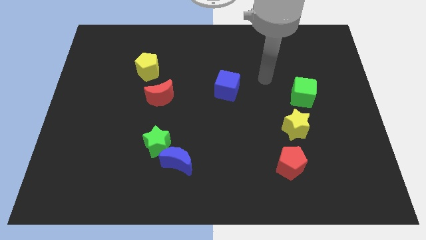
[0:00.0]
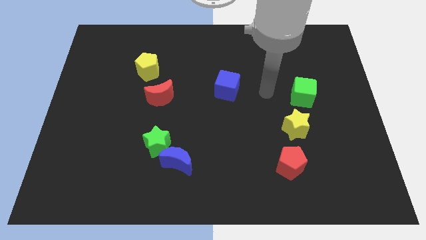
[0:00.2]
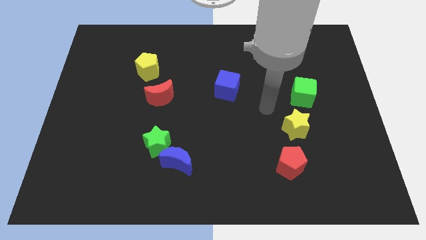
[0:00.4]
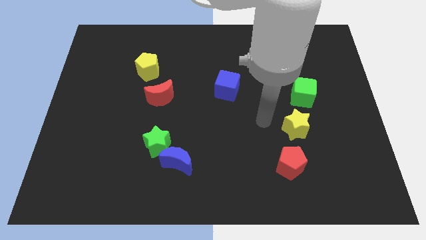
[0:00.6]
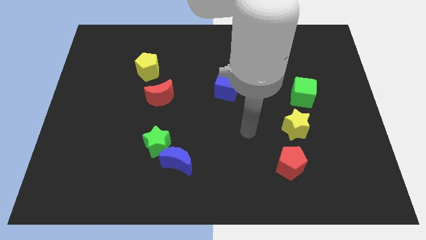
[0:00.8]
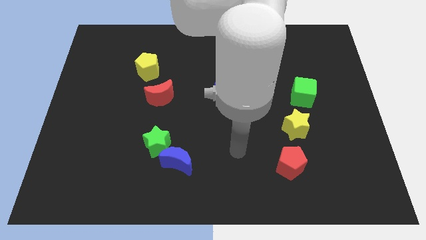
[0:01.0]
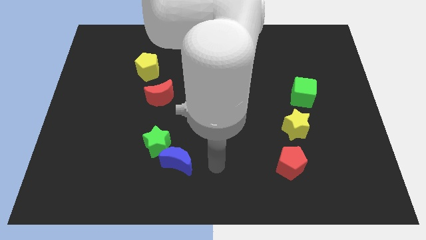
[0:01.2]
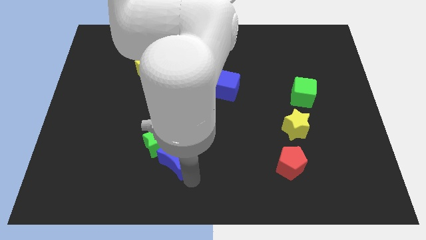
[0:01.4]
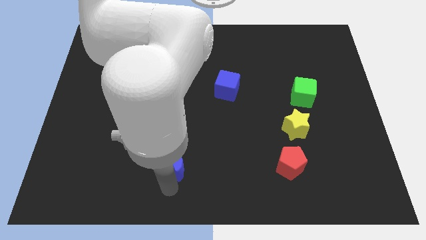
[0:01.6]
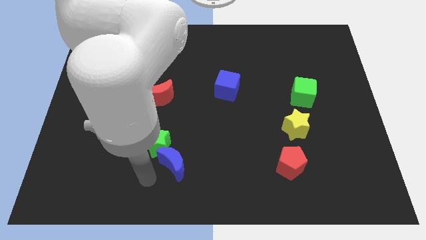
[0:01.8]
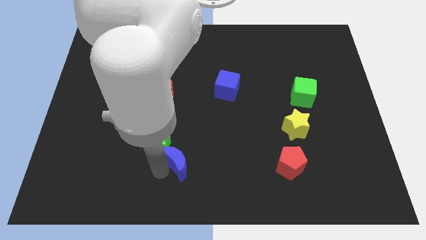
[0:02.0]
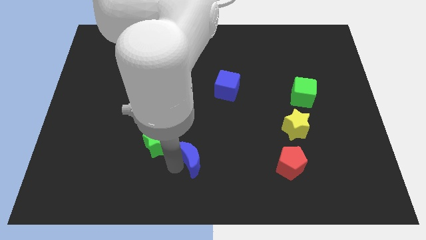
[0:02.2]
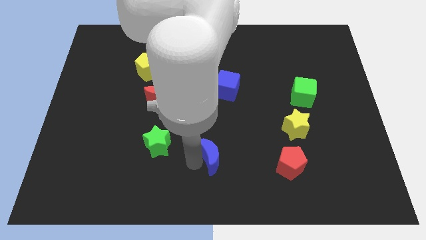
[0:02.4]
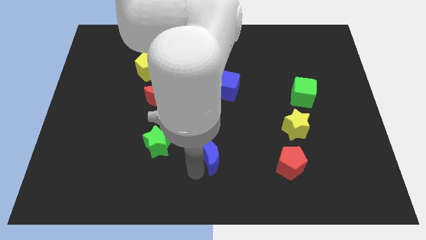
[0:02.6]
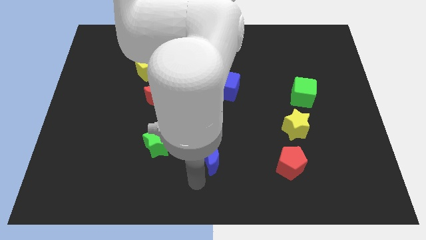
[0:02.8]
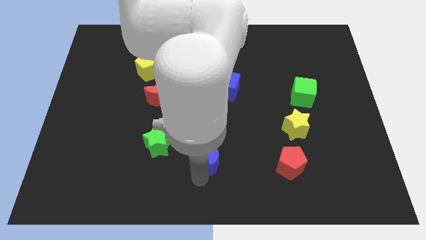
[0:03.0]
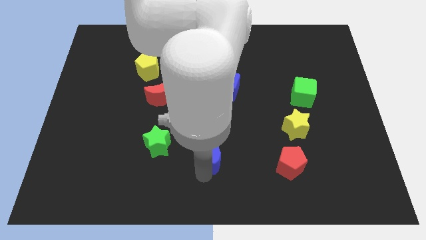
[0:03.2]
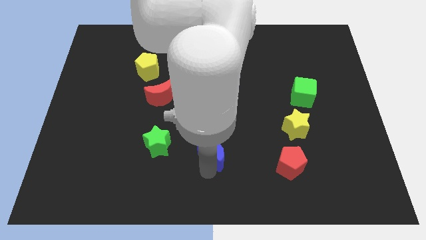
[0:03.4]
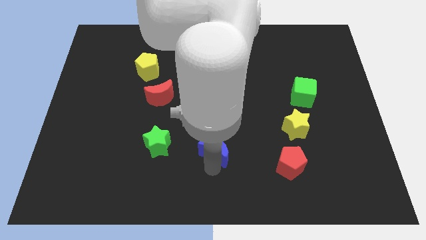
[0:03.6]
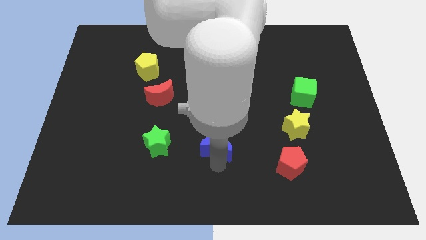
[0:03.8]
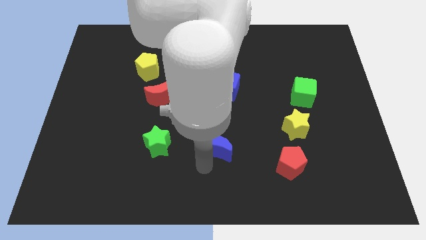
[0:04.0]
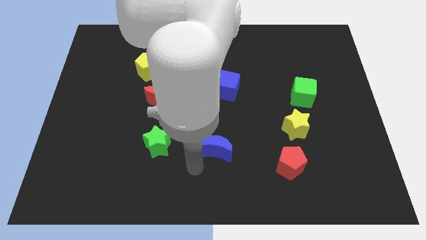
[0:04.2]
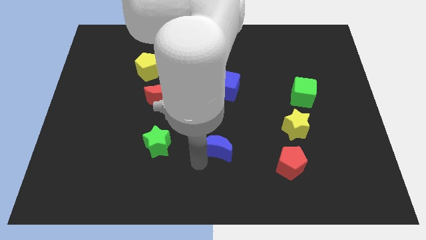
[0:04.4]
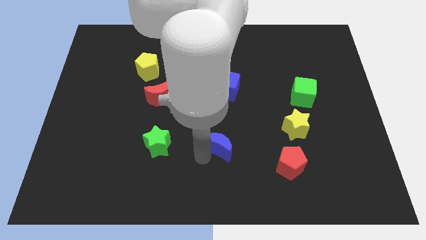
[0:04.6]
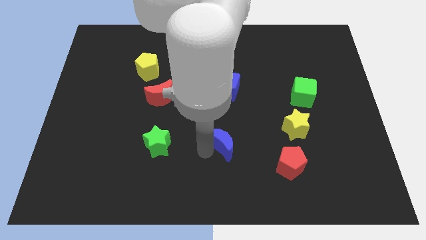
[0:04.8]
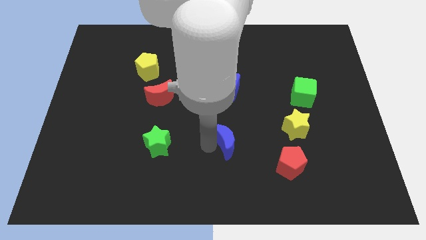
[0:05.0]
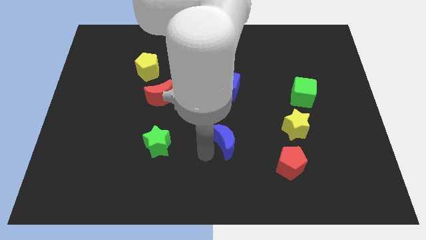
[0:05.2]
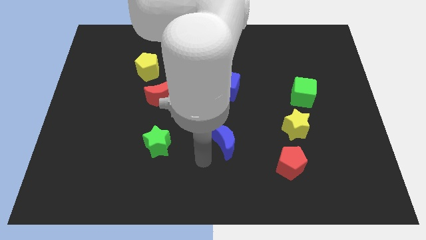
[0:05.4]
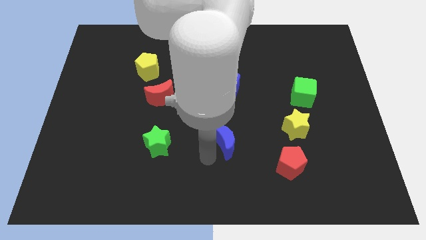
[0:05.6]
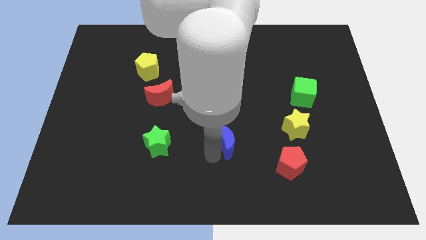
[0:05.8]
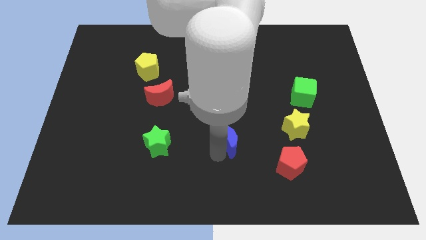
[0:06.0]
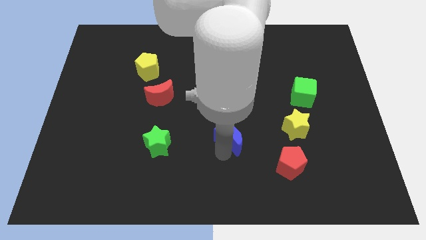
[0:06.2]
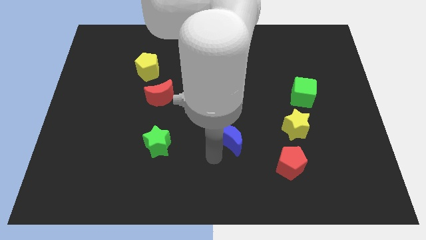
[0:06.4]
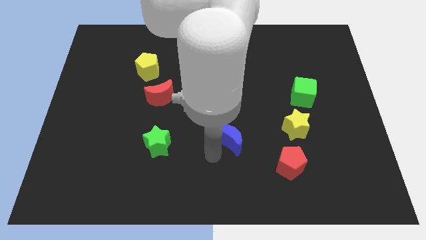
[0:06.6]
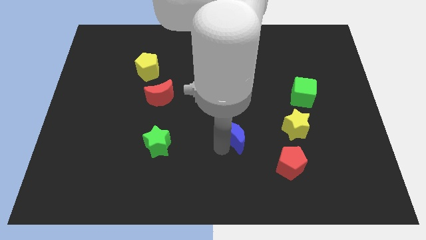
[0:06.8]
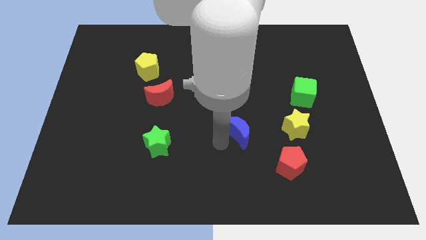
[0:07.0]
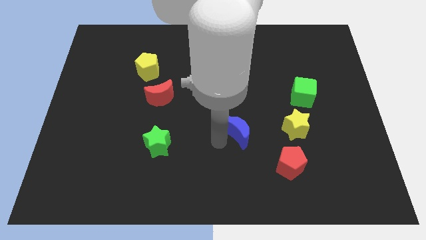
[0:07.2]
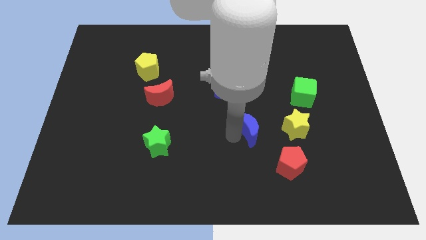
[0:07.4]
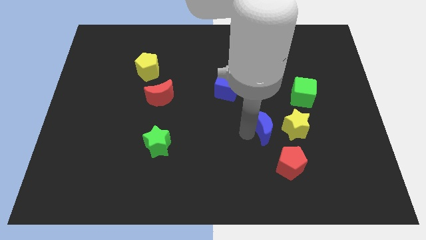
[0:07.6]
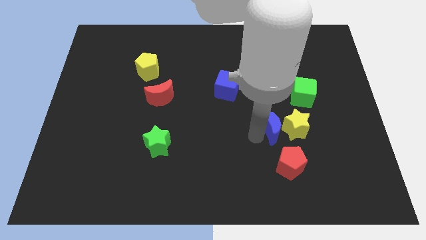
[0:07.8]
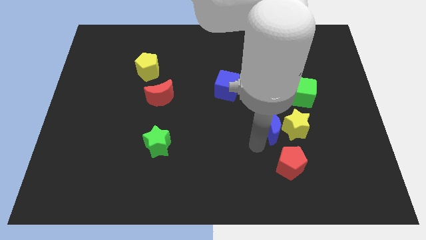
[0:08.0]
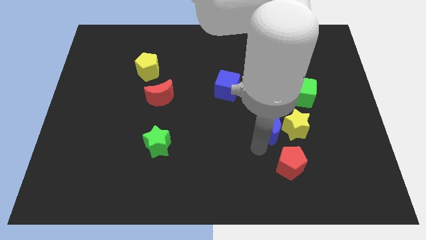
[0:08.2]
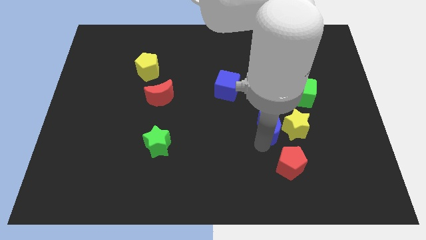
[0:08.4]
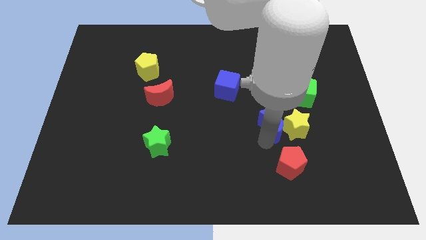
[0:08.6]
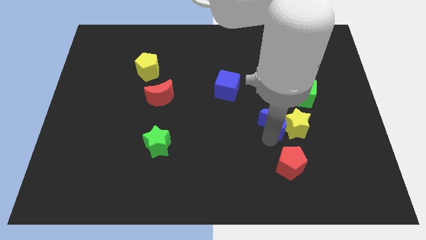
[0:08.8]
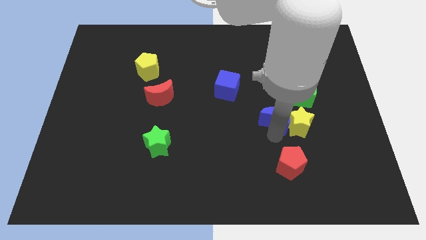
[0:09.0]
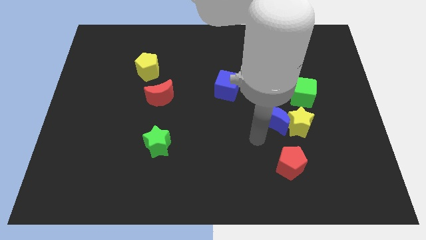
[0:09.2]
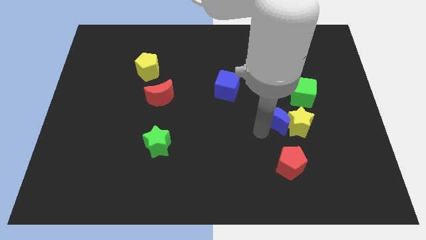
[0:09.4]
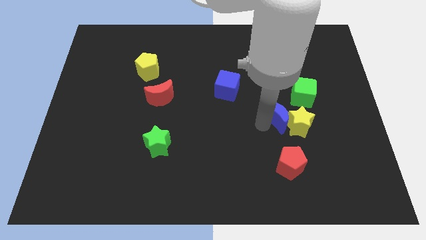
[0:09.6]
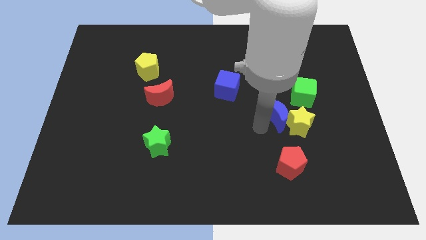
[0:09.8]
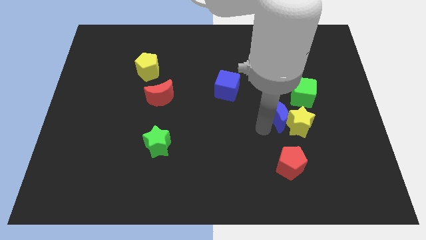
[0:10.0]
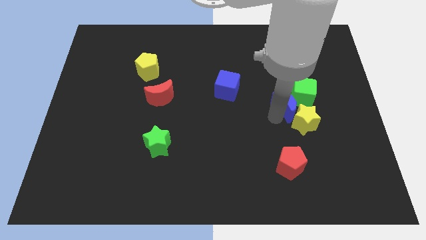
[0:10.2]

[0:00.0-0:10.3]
push the blue moon next to the green cube

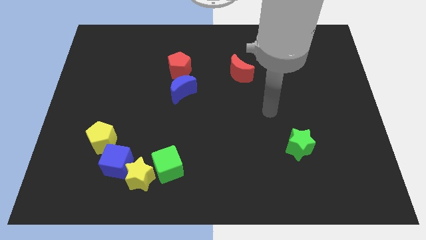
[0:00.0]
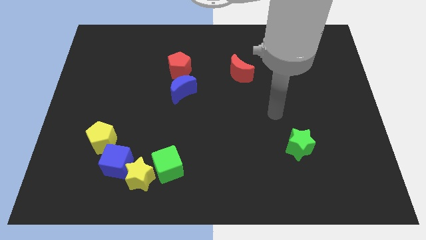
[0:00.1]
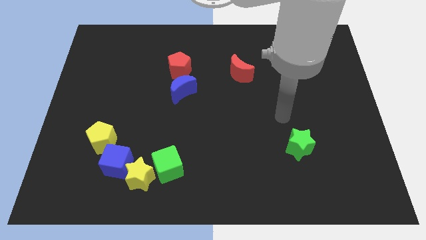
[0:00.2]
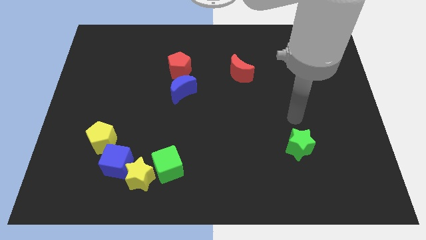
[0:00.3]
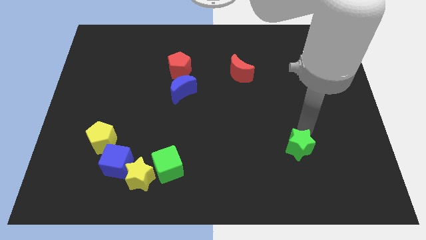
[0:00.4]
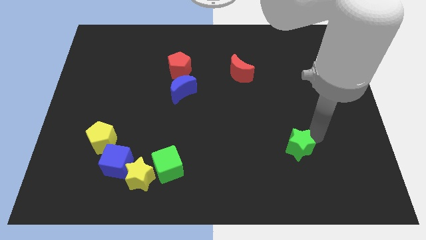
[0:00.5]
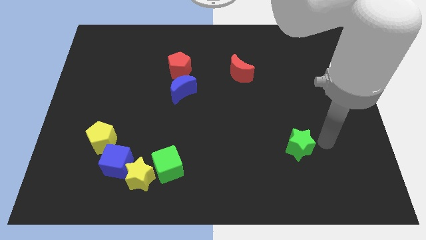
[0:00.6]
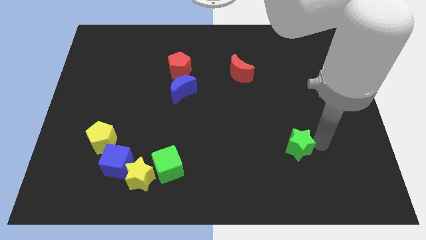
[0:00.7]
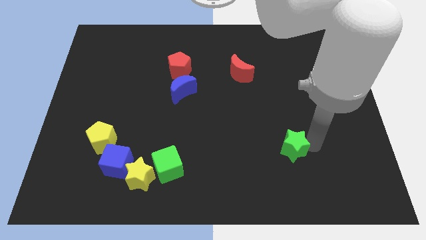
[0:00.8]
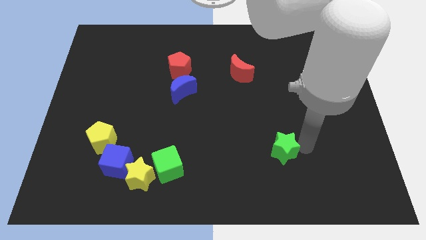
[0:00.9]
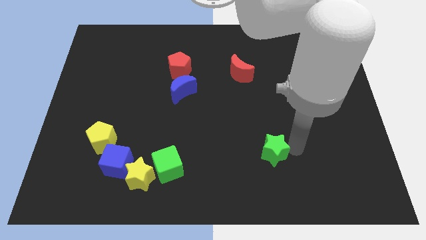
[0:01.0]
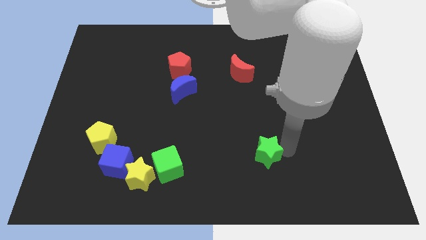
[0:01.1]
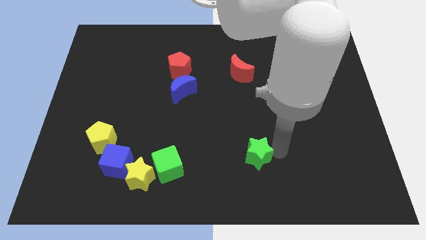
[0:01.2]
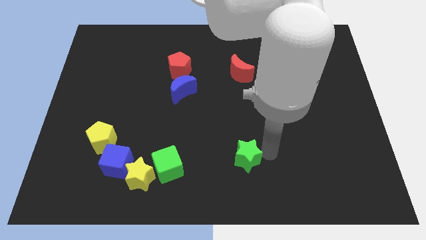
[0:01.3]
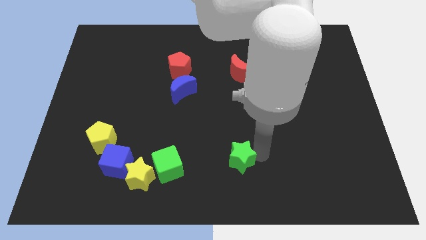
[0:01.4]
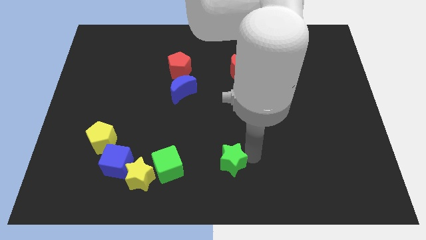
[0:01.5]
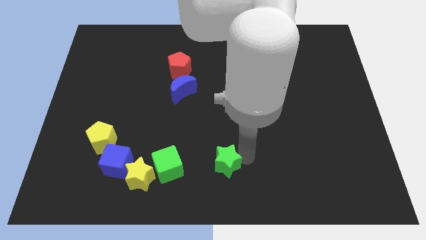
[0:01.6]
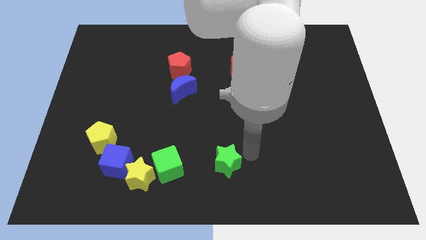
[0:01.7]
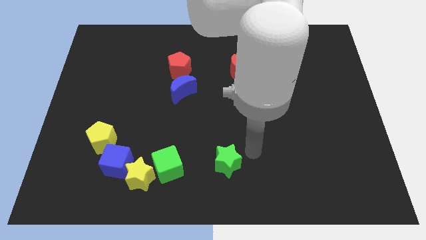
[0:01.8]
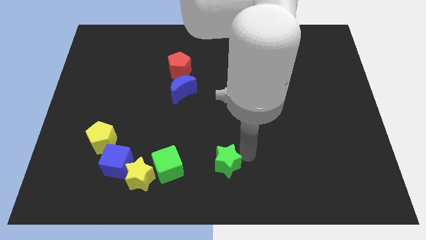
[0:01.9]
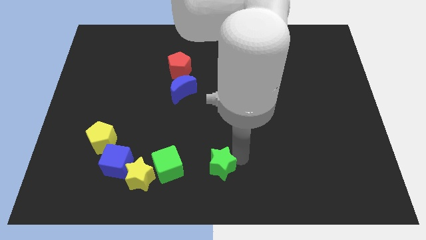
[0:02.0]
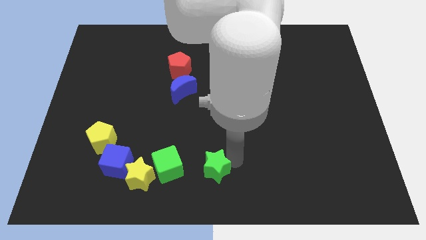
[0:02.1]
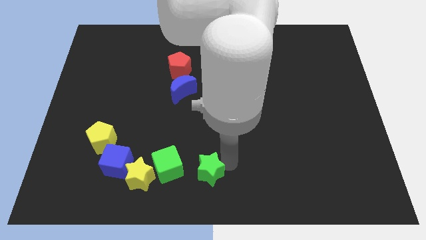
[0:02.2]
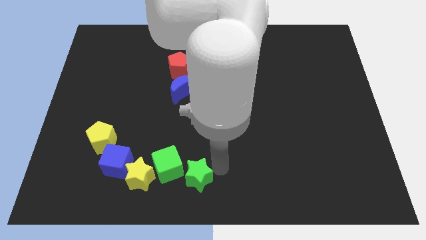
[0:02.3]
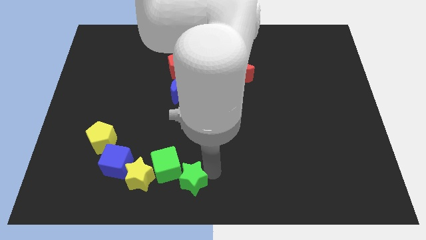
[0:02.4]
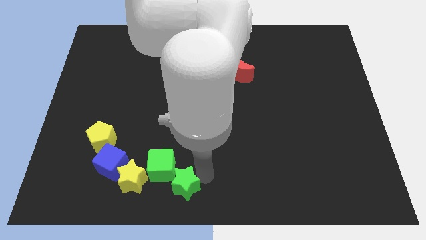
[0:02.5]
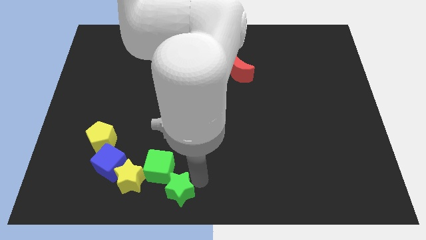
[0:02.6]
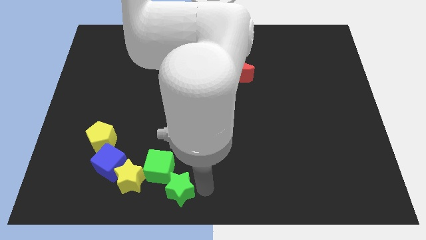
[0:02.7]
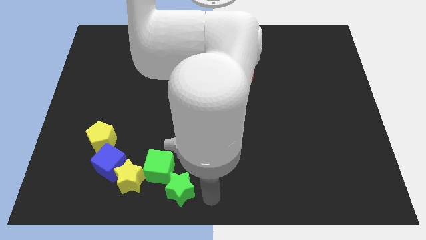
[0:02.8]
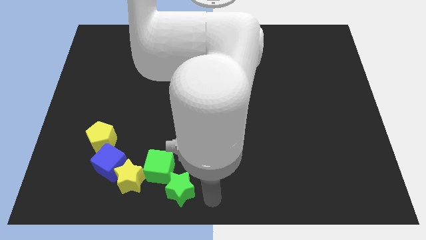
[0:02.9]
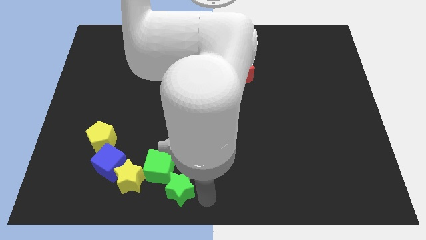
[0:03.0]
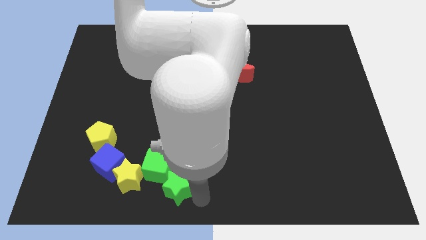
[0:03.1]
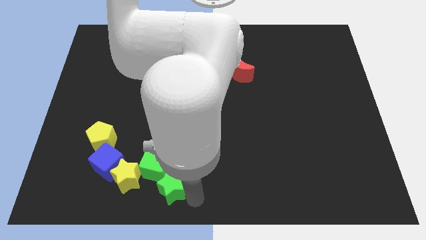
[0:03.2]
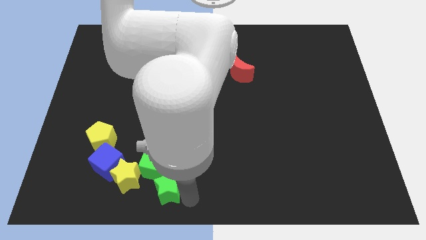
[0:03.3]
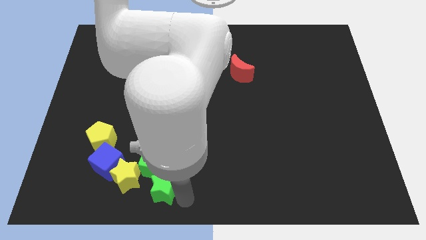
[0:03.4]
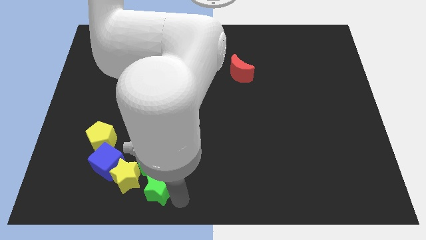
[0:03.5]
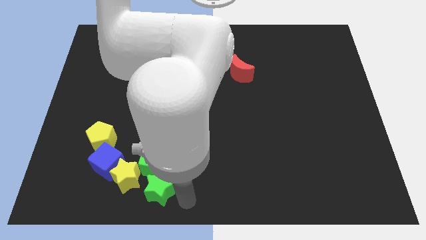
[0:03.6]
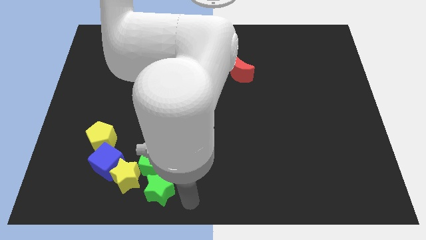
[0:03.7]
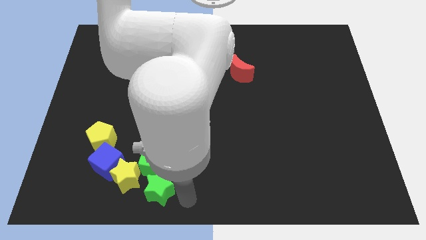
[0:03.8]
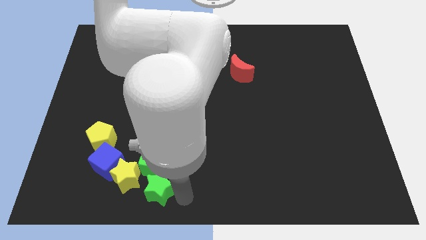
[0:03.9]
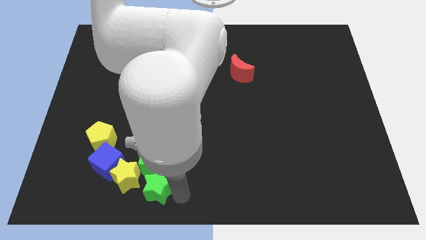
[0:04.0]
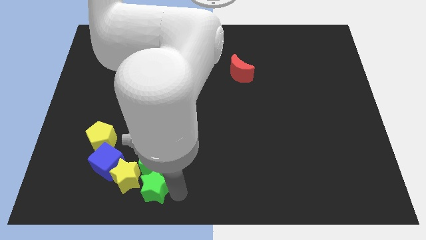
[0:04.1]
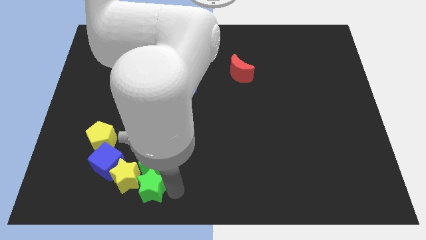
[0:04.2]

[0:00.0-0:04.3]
move the green star towards the yellow star
